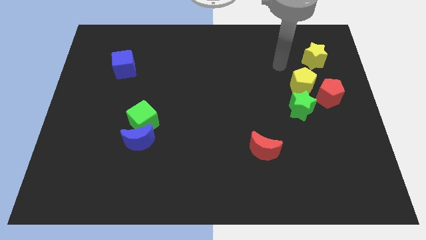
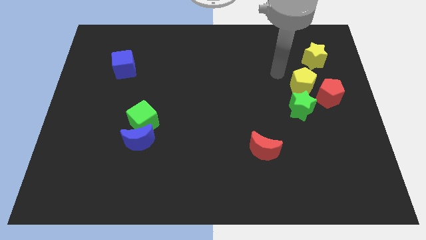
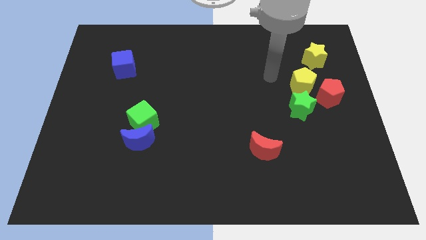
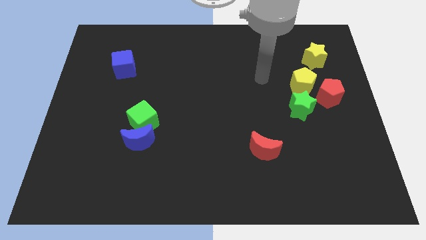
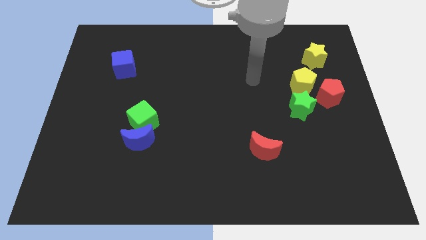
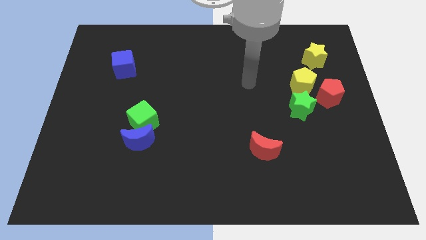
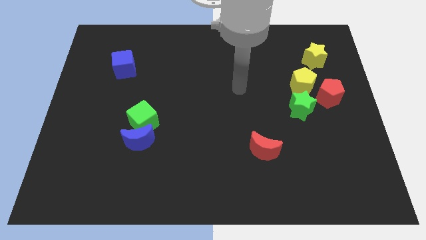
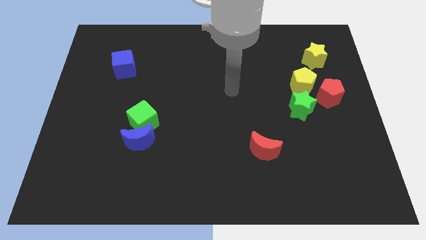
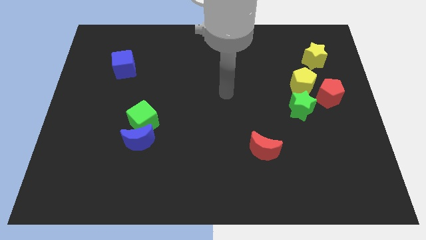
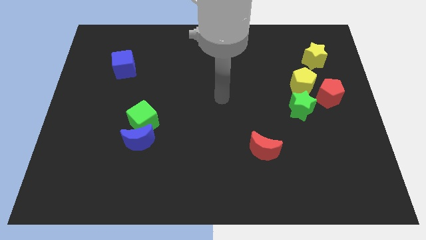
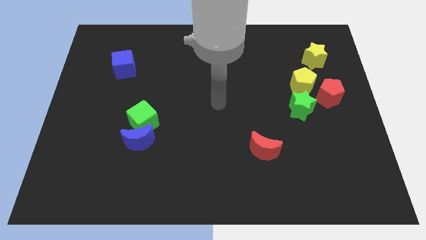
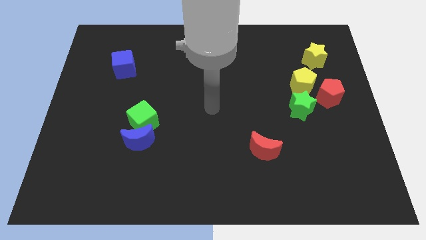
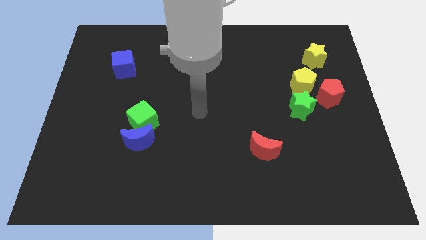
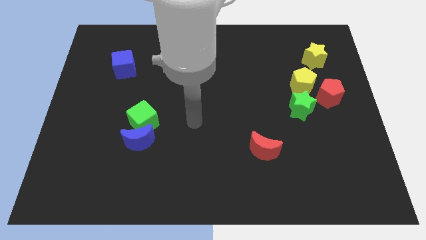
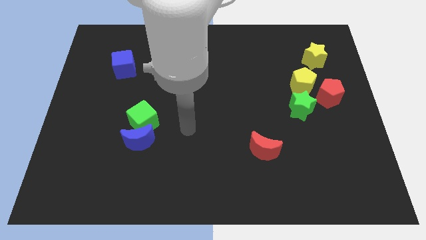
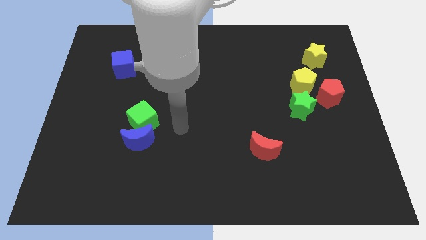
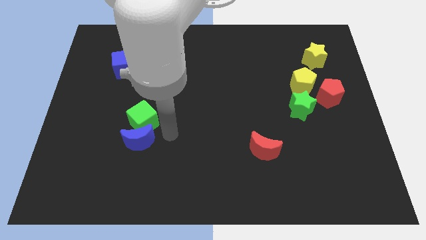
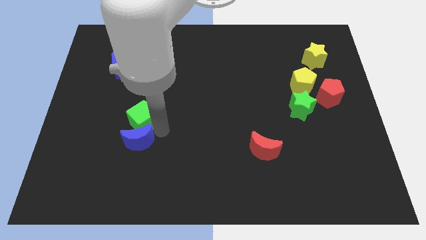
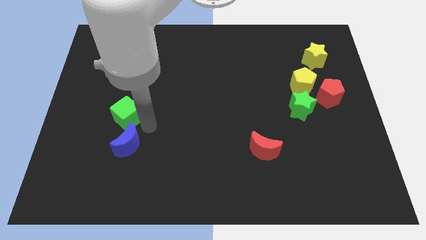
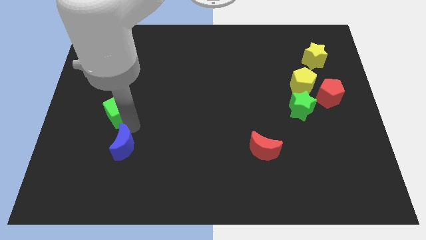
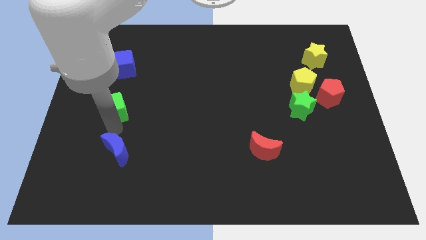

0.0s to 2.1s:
separate the blue moon from the green cube

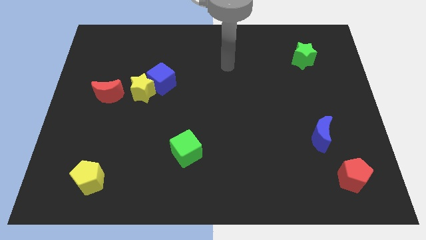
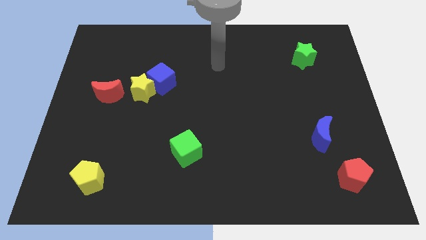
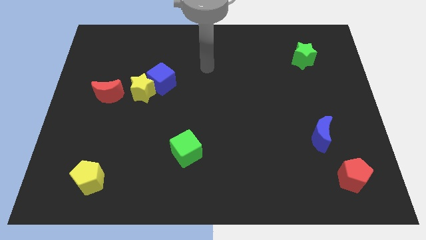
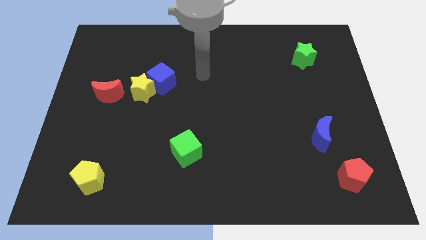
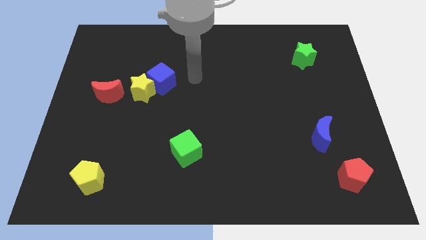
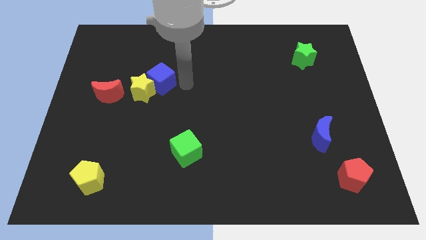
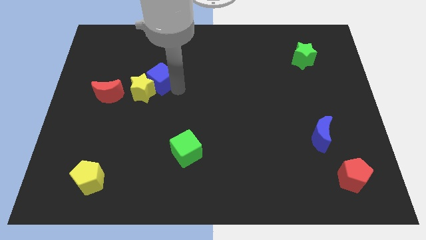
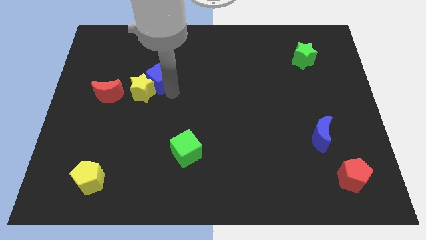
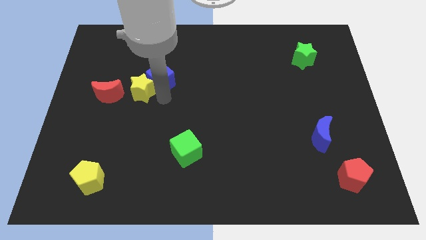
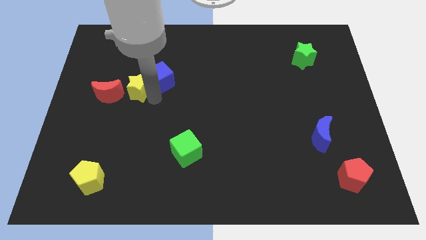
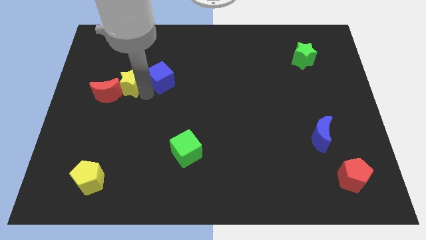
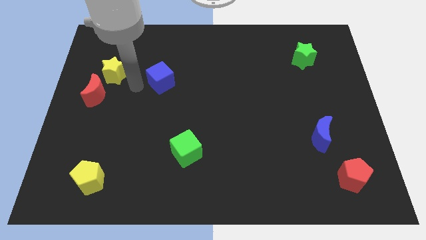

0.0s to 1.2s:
move the blue cube away from the yellow star

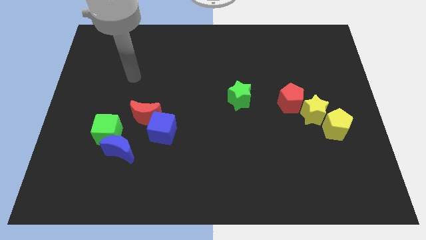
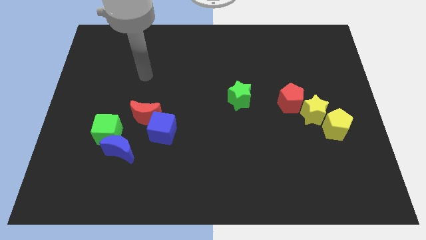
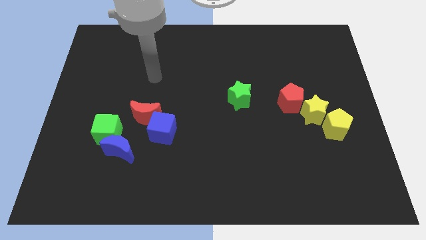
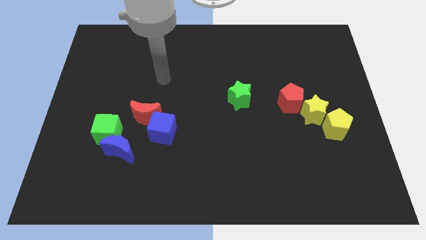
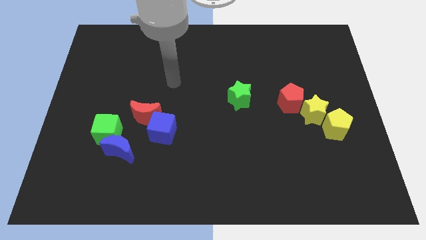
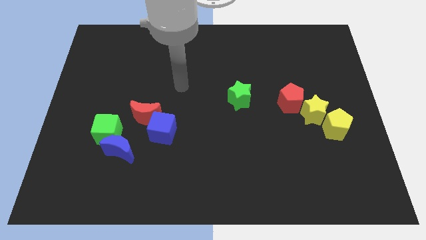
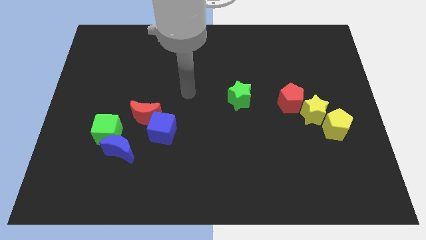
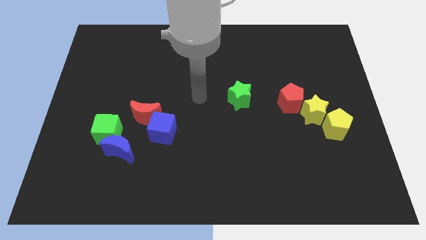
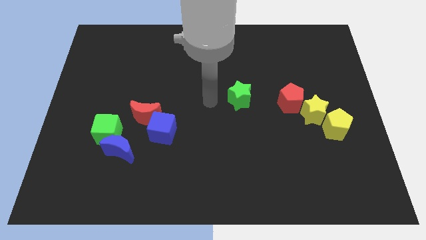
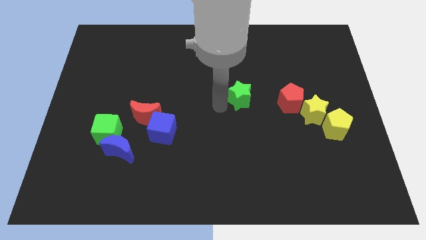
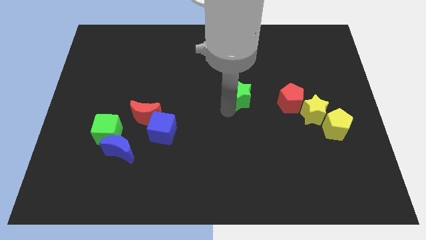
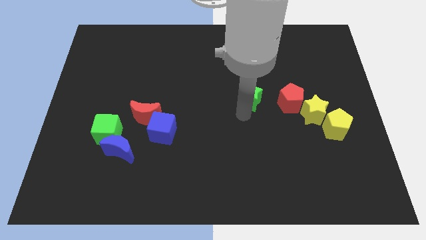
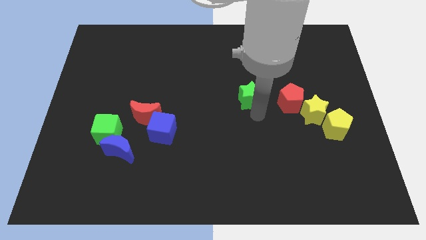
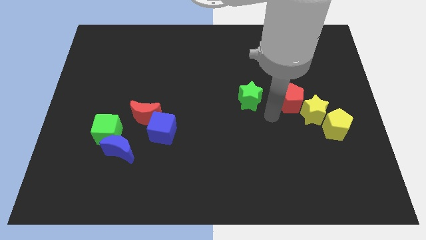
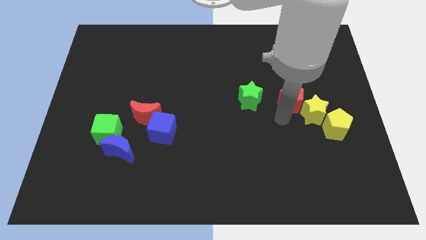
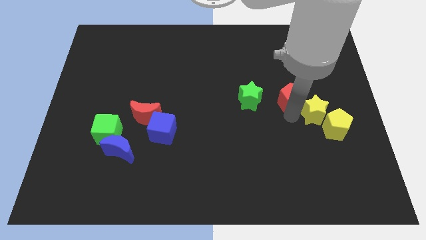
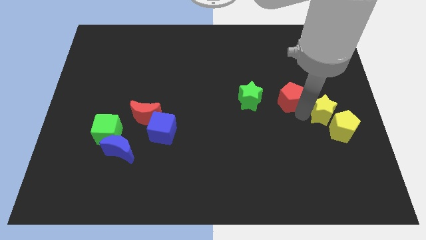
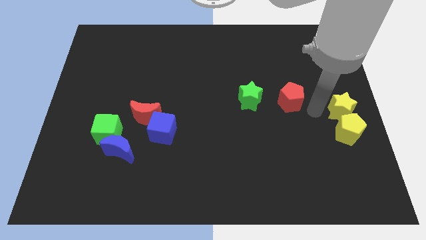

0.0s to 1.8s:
pull the red pentagon apart from the yellow star

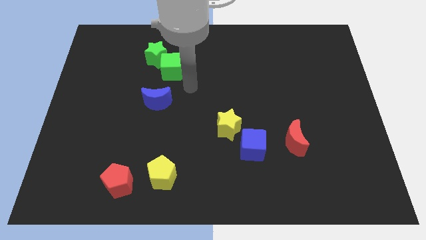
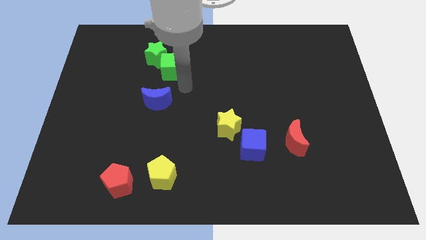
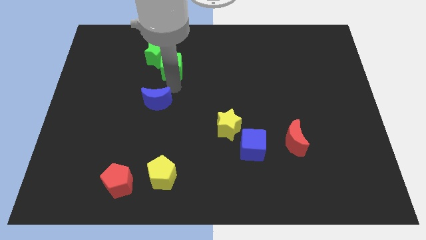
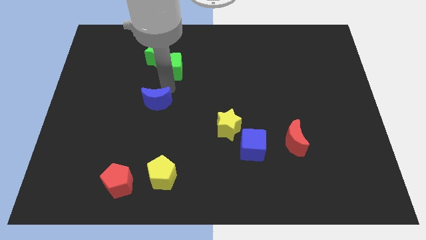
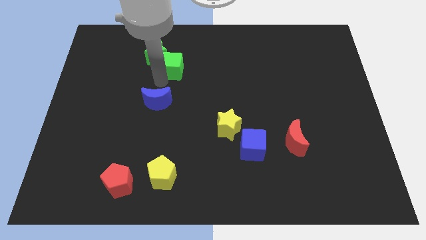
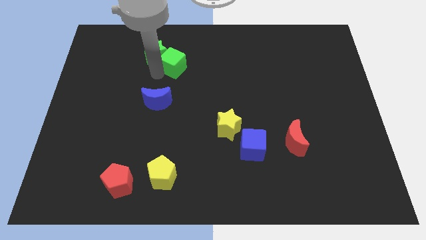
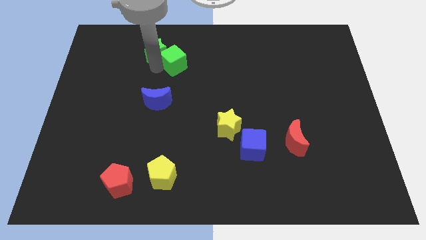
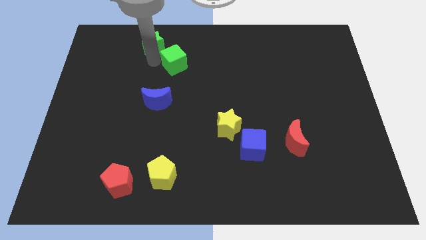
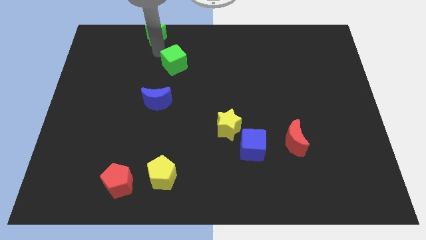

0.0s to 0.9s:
separate the green cube from the green star

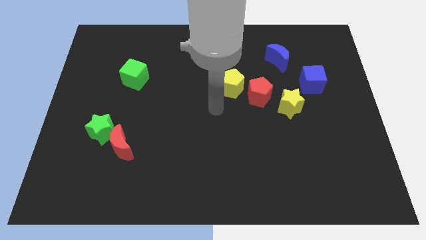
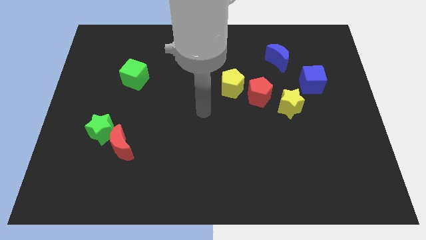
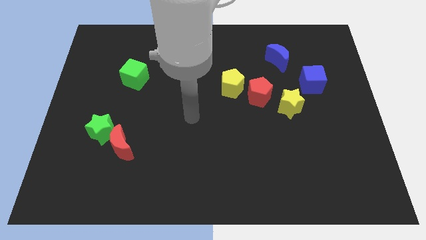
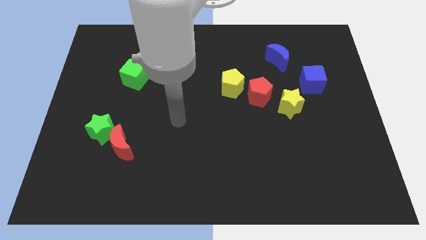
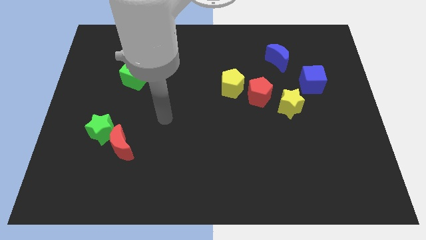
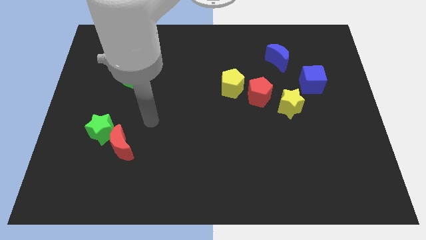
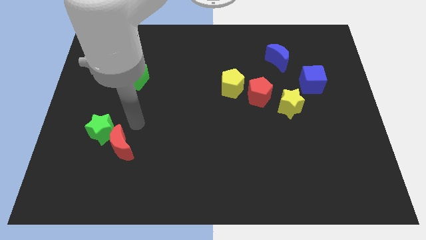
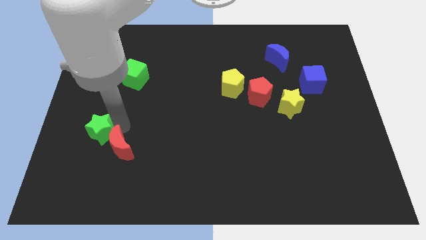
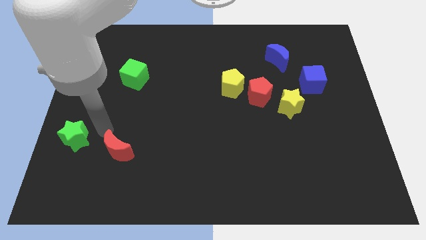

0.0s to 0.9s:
pull the red moon apart from the green star

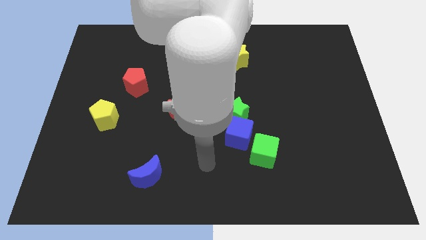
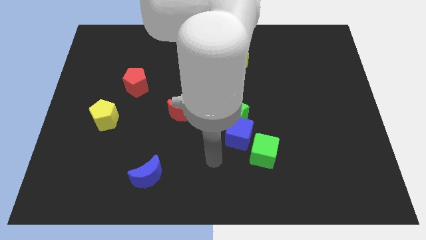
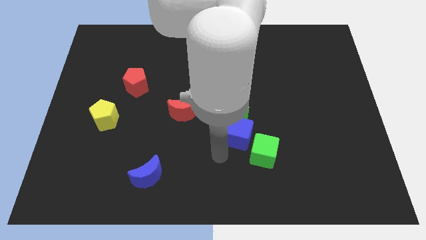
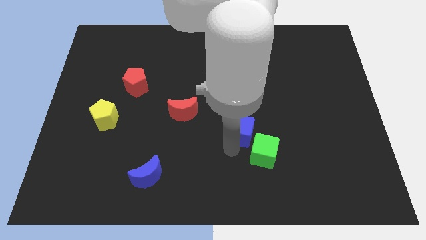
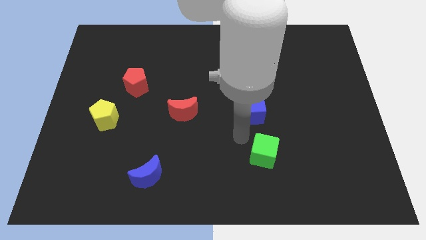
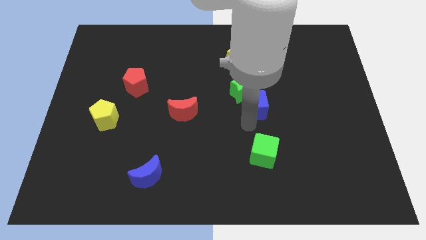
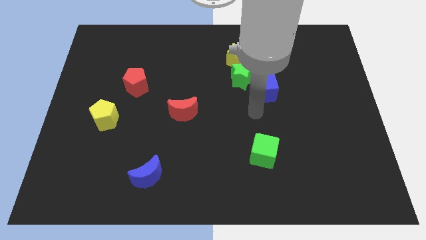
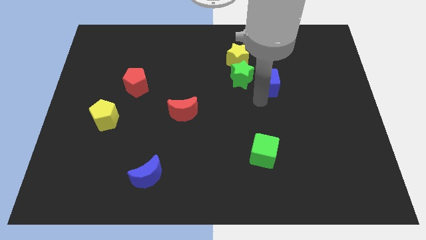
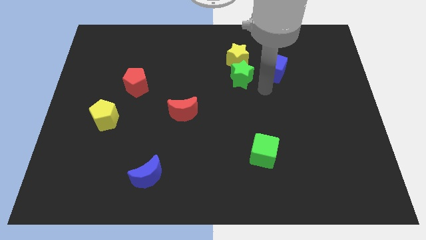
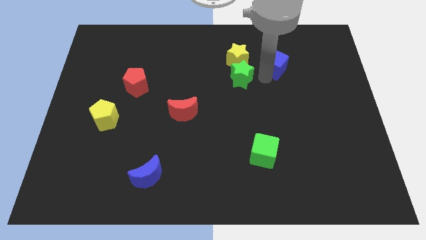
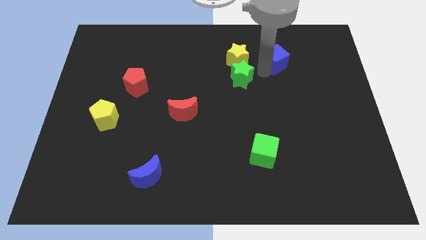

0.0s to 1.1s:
pull the green star apart from the blue cube

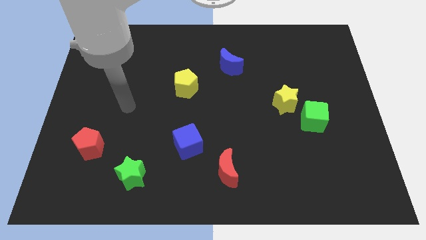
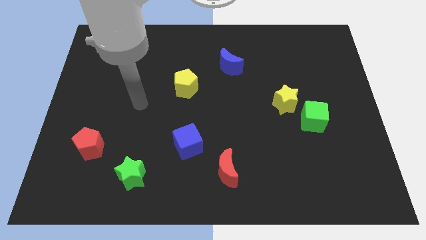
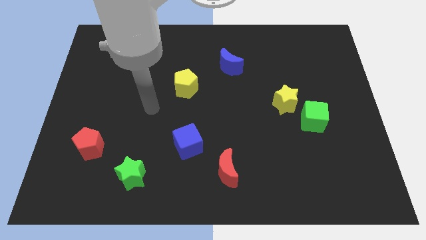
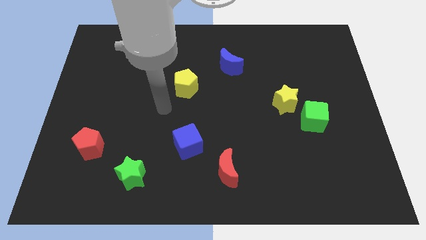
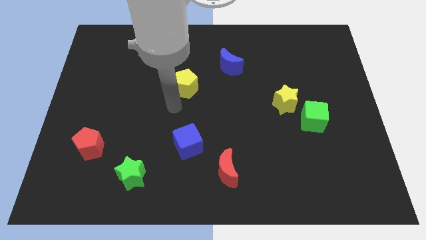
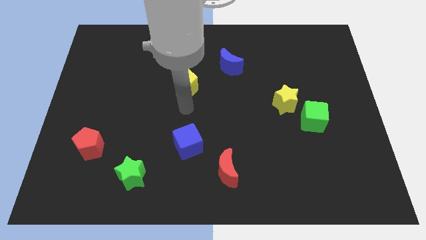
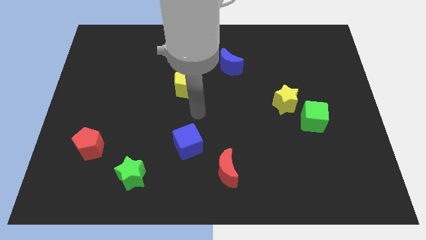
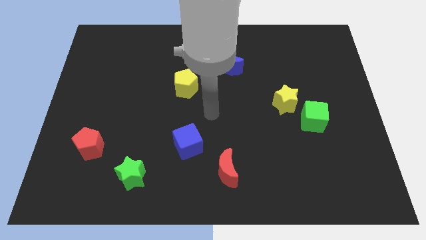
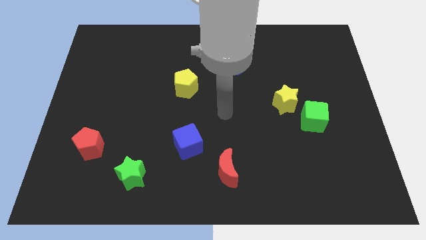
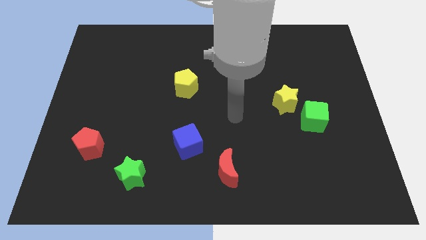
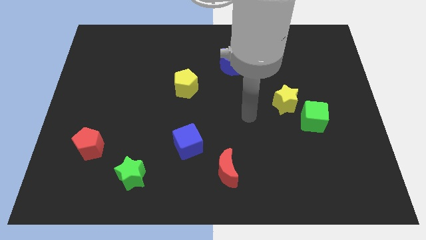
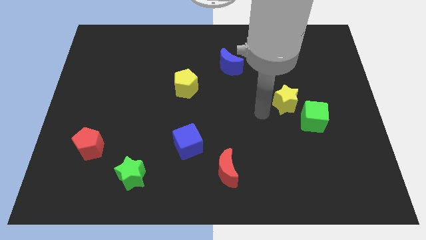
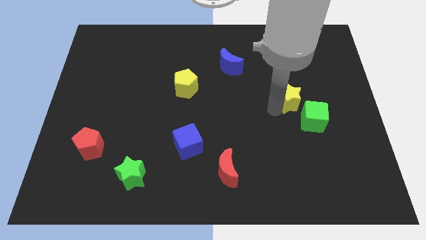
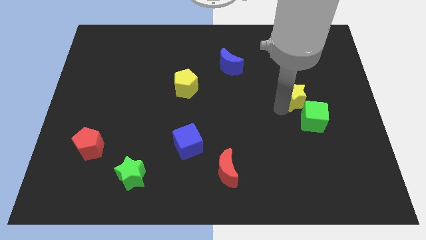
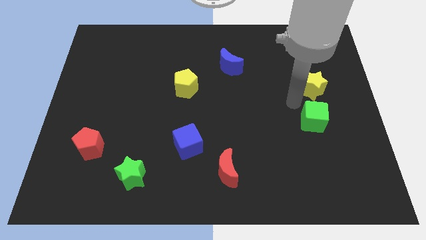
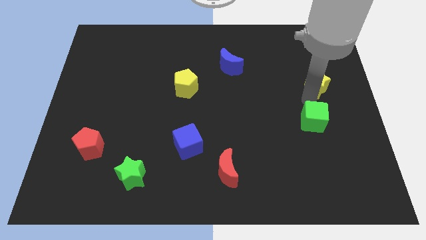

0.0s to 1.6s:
pull the green cube apart from the yellow star
